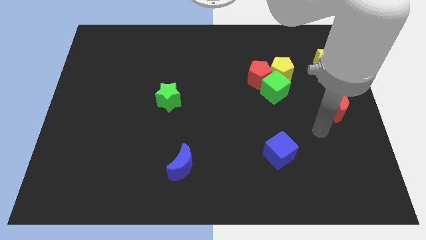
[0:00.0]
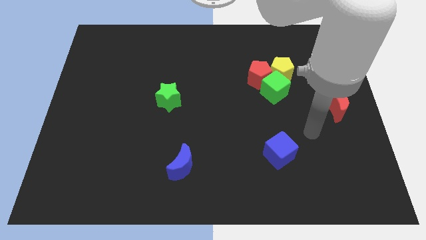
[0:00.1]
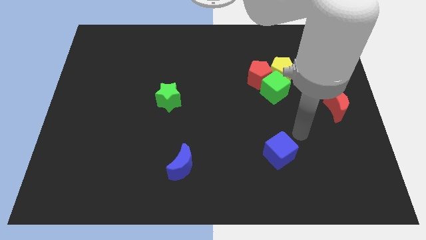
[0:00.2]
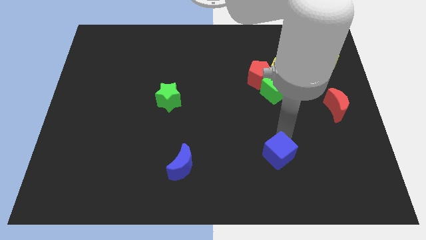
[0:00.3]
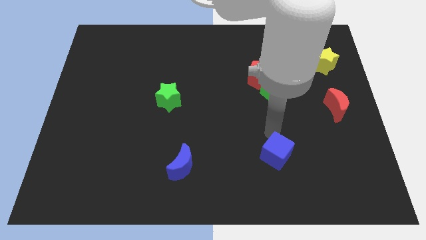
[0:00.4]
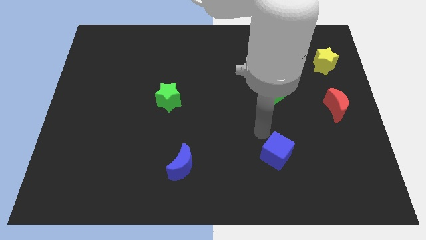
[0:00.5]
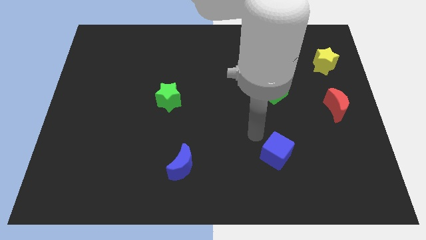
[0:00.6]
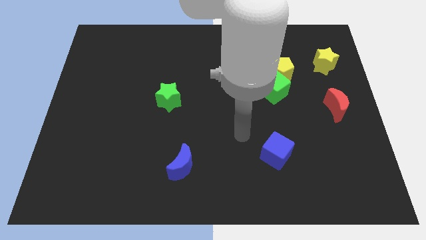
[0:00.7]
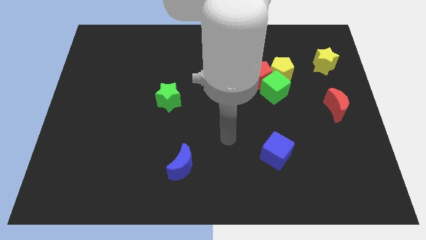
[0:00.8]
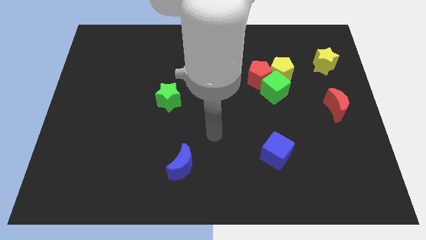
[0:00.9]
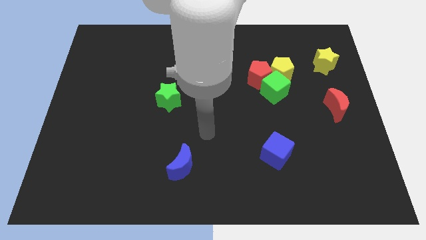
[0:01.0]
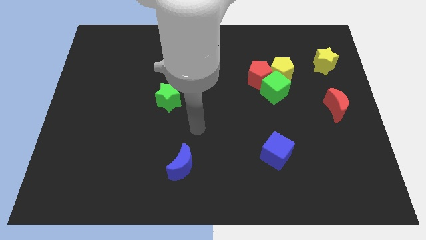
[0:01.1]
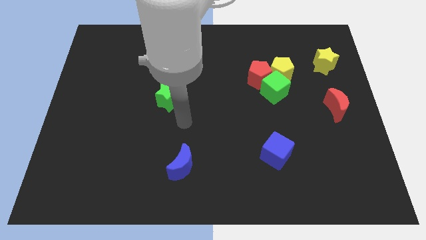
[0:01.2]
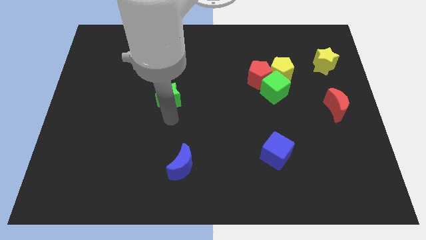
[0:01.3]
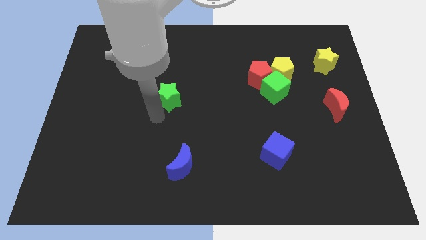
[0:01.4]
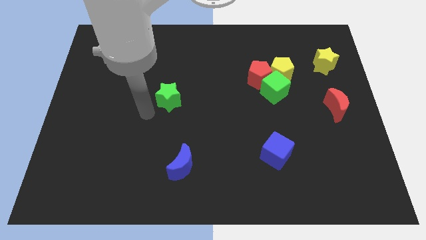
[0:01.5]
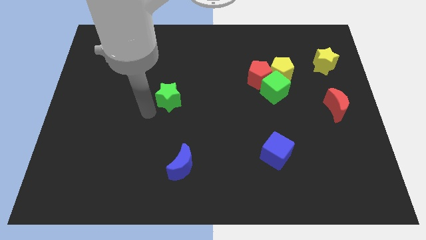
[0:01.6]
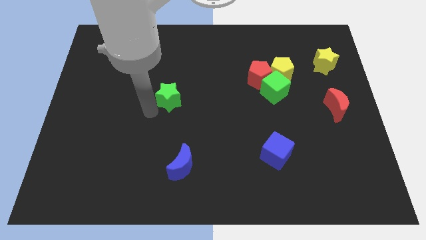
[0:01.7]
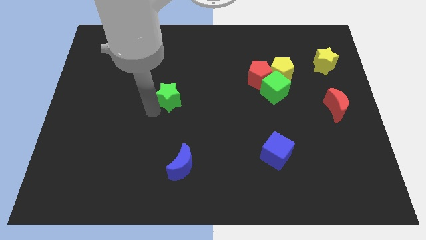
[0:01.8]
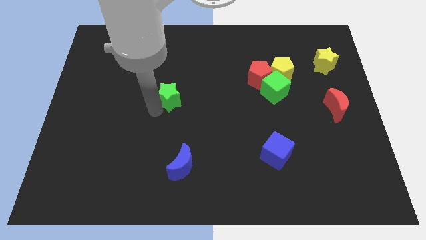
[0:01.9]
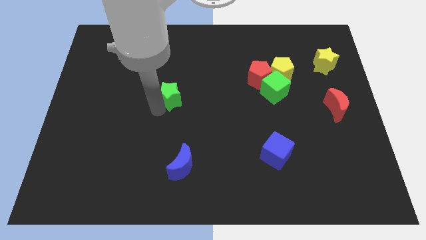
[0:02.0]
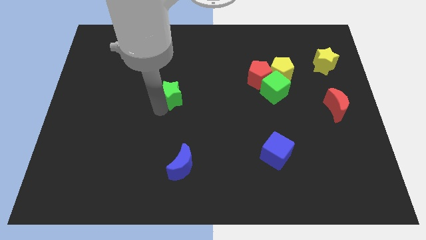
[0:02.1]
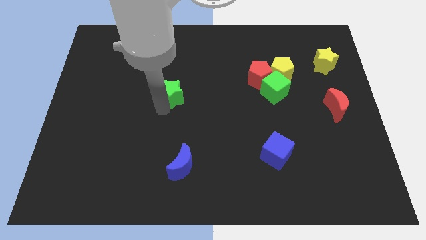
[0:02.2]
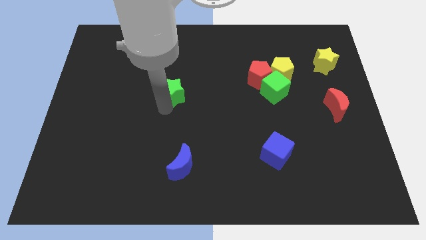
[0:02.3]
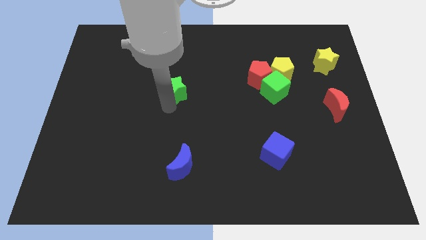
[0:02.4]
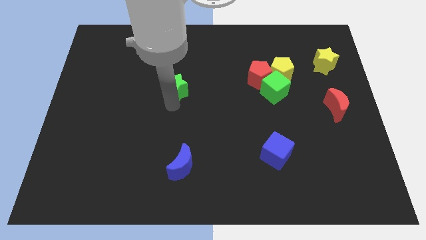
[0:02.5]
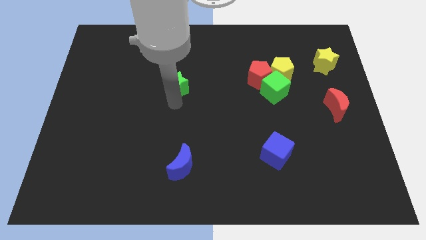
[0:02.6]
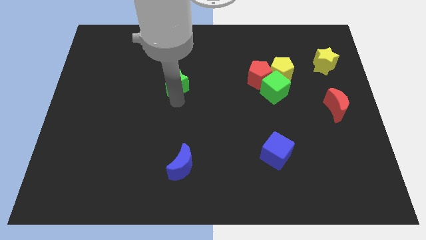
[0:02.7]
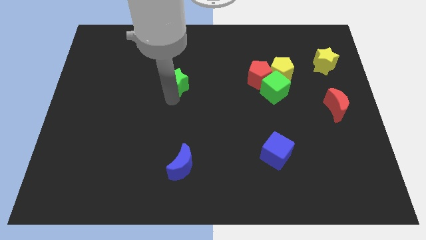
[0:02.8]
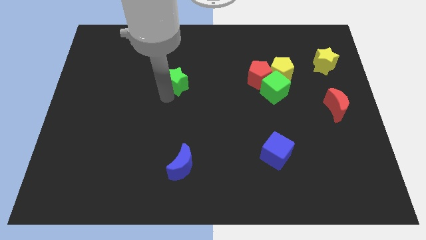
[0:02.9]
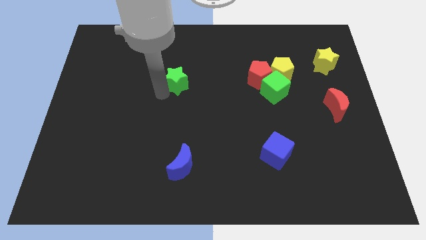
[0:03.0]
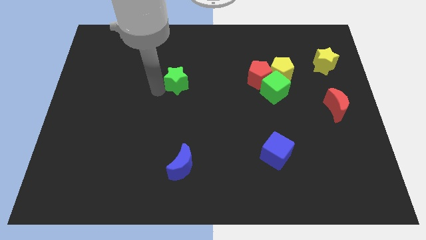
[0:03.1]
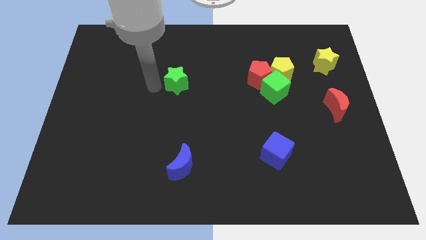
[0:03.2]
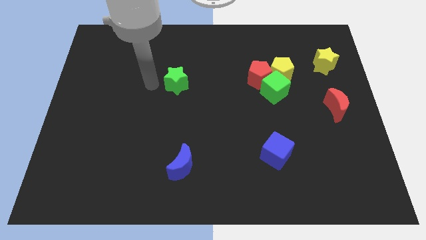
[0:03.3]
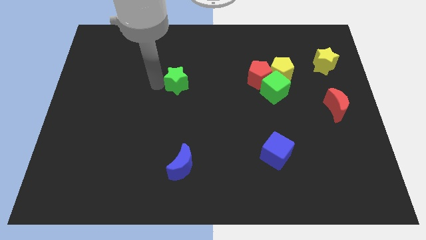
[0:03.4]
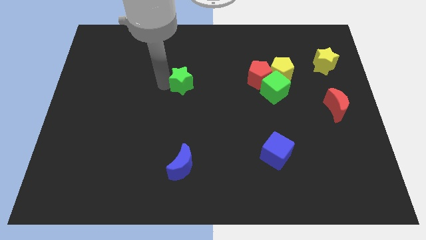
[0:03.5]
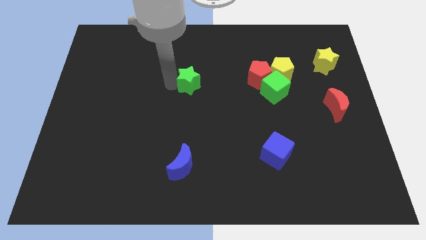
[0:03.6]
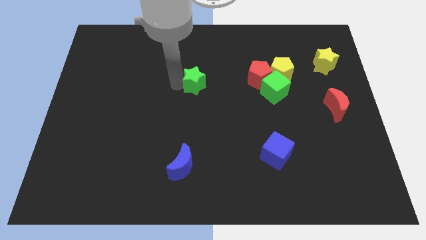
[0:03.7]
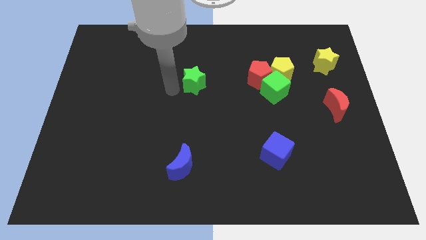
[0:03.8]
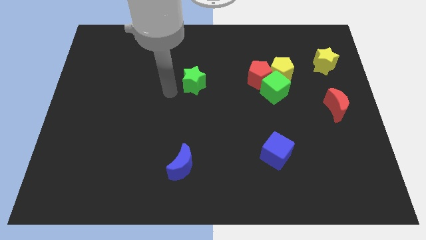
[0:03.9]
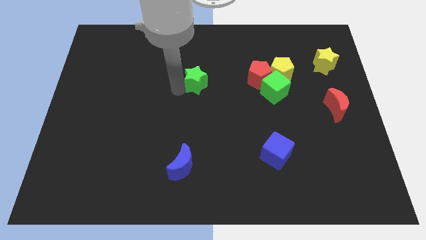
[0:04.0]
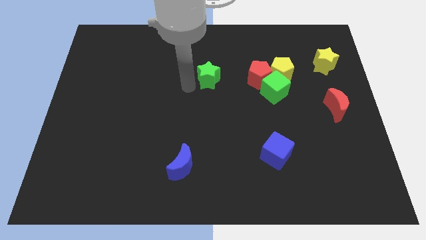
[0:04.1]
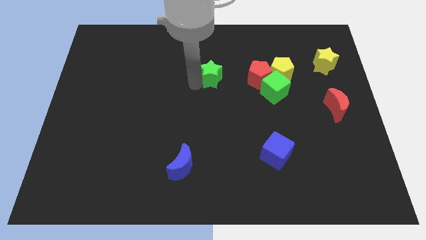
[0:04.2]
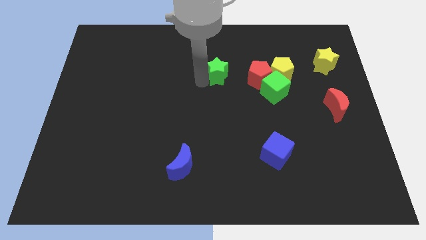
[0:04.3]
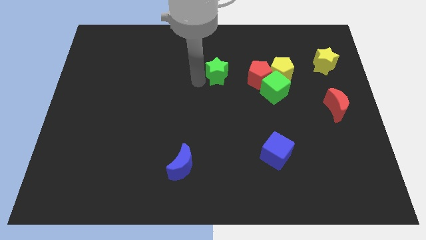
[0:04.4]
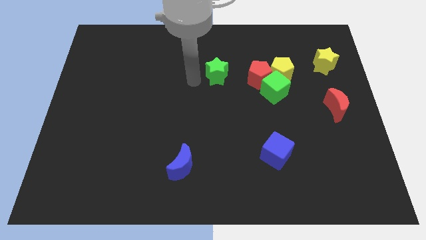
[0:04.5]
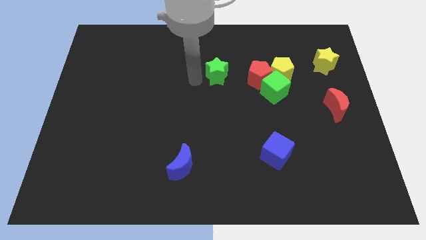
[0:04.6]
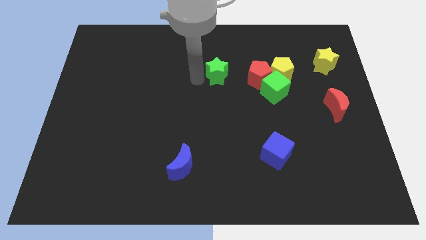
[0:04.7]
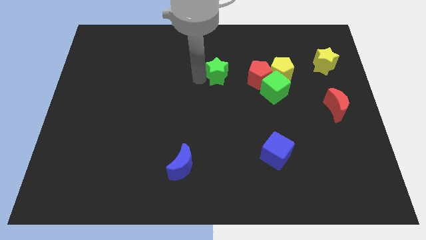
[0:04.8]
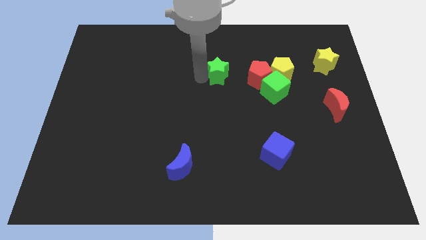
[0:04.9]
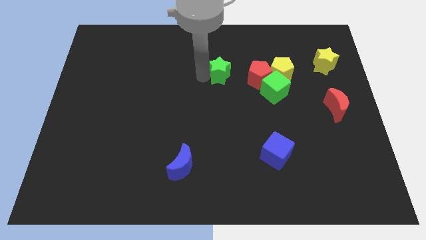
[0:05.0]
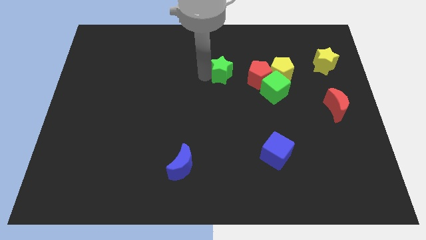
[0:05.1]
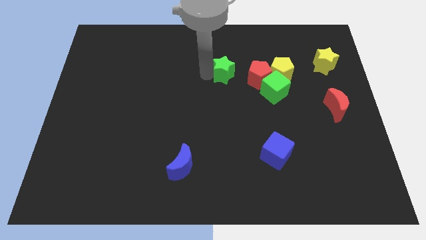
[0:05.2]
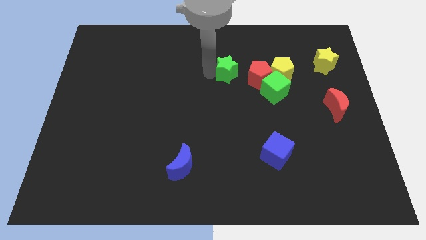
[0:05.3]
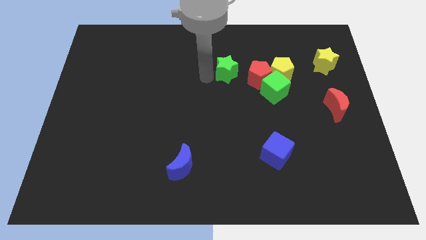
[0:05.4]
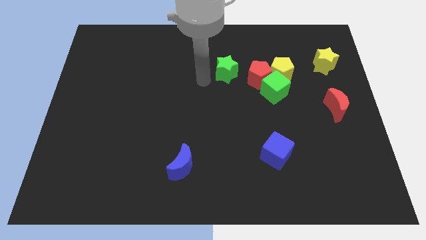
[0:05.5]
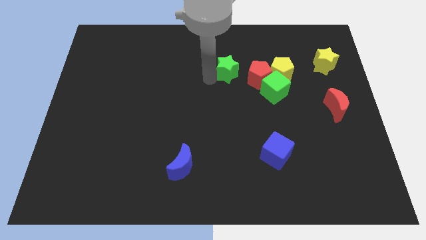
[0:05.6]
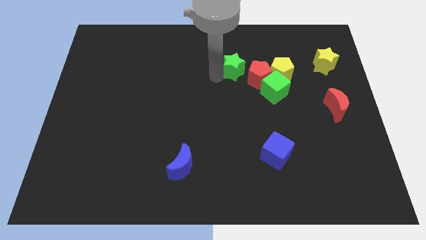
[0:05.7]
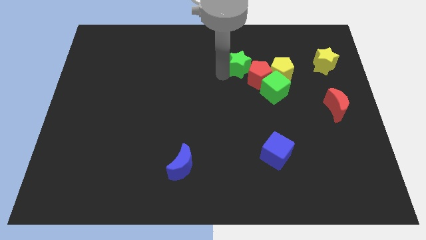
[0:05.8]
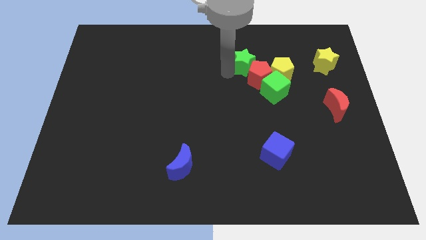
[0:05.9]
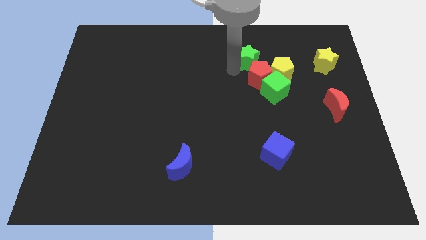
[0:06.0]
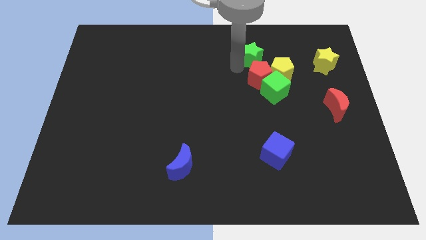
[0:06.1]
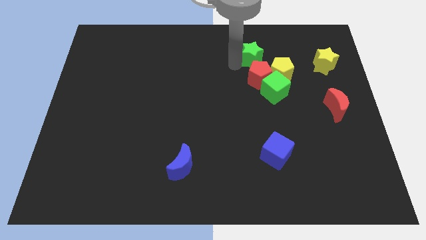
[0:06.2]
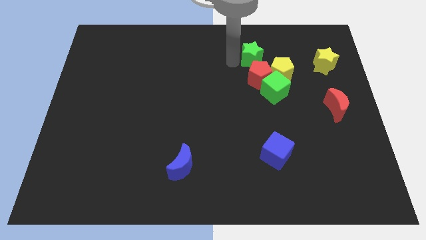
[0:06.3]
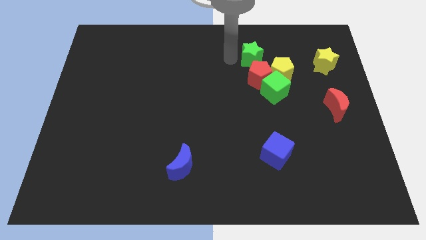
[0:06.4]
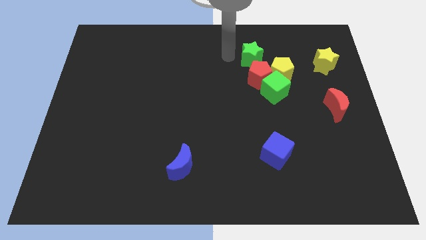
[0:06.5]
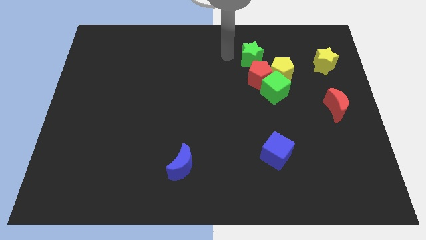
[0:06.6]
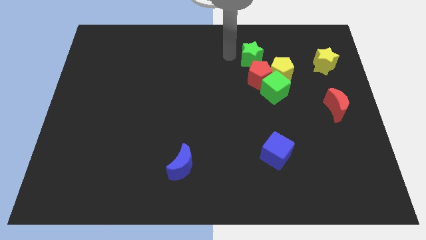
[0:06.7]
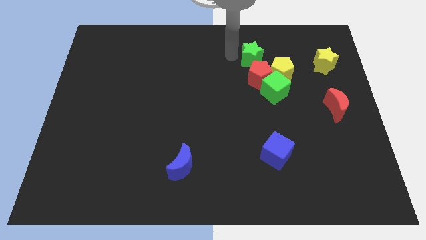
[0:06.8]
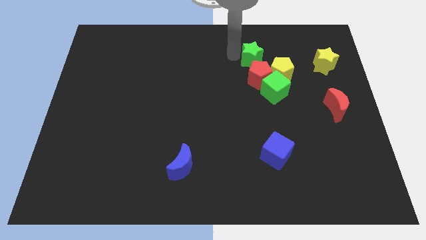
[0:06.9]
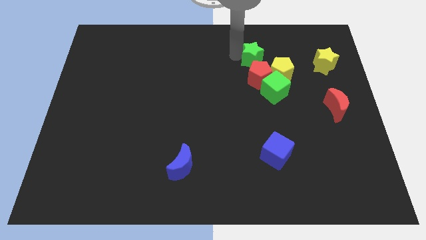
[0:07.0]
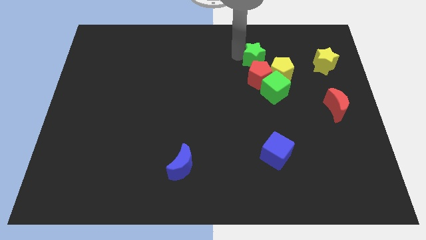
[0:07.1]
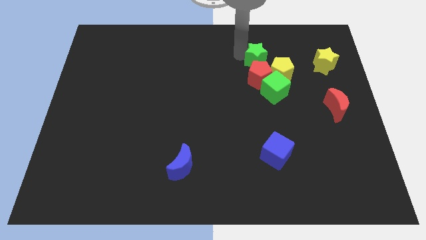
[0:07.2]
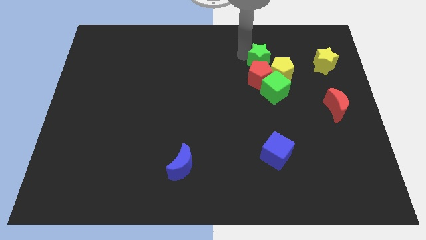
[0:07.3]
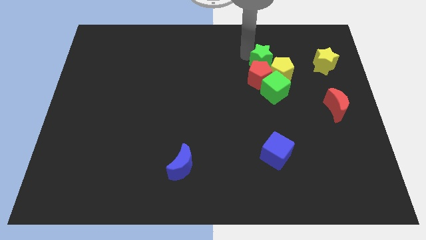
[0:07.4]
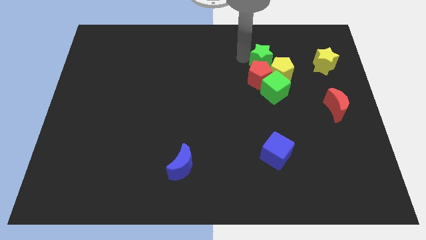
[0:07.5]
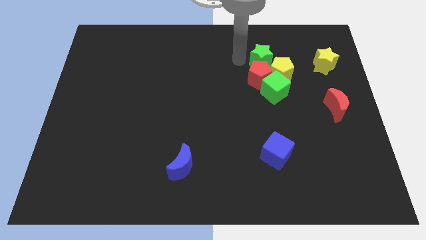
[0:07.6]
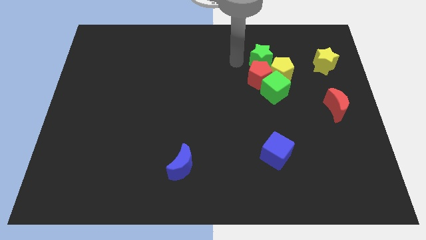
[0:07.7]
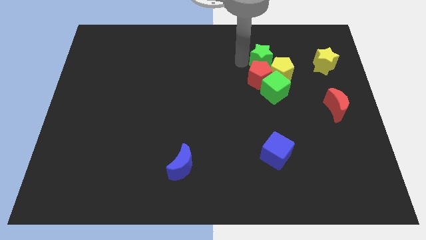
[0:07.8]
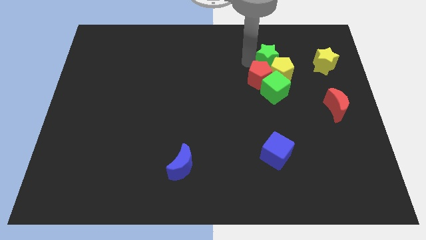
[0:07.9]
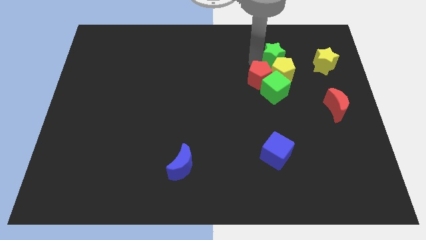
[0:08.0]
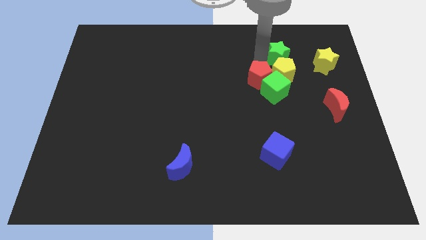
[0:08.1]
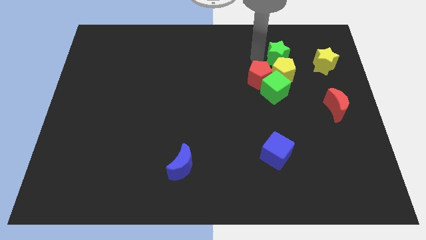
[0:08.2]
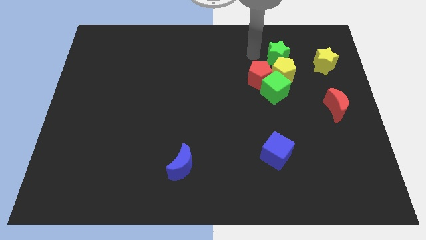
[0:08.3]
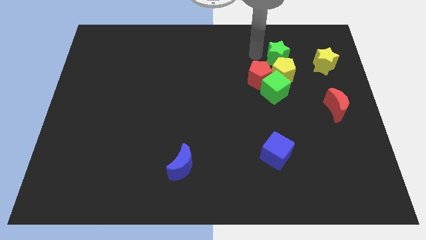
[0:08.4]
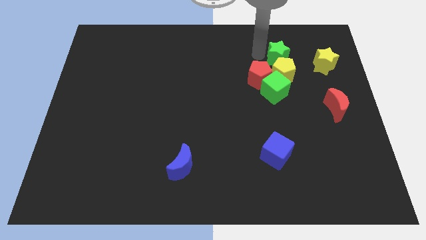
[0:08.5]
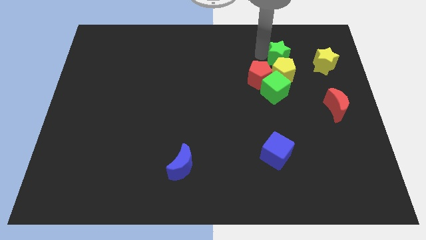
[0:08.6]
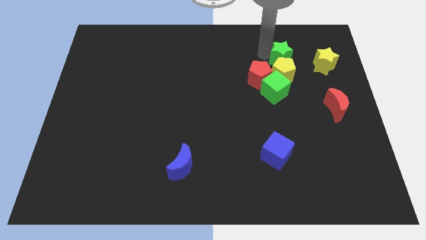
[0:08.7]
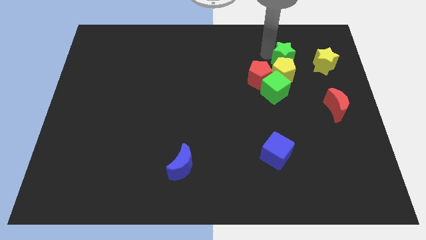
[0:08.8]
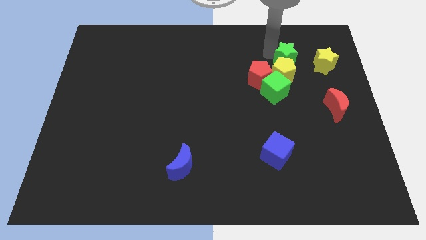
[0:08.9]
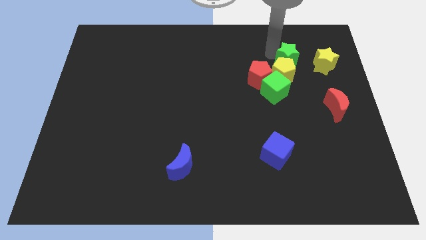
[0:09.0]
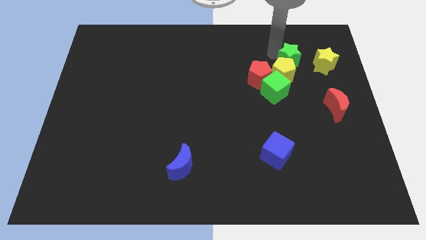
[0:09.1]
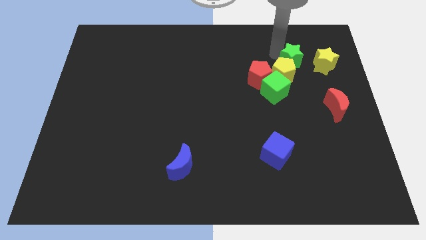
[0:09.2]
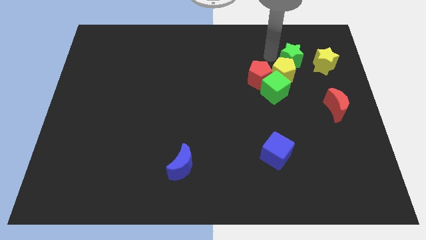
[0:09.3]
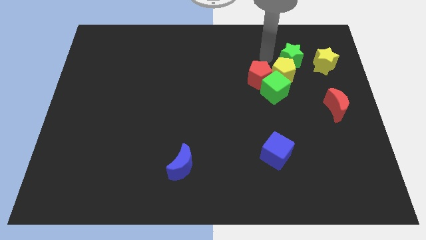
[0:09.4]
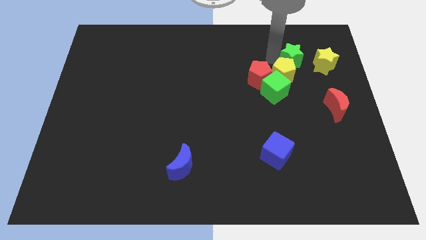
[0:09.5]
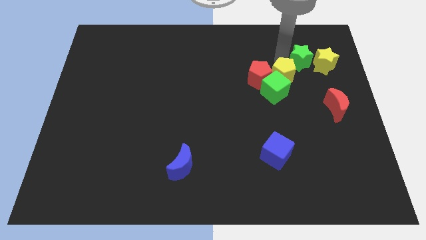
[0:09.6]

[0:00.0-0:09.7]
slide the green star next to the yellow star
